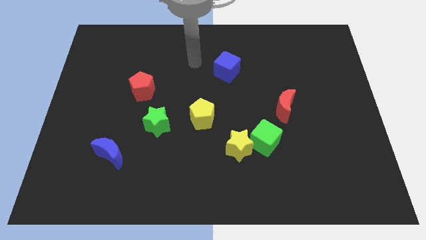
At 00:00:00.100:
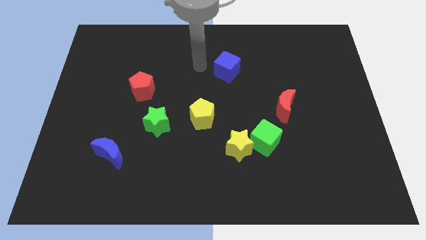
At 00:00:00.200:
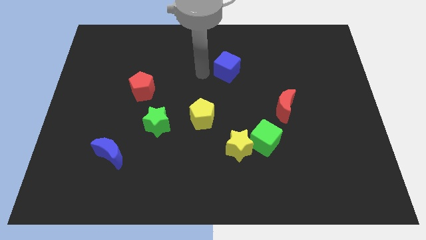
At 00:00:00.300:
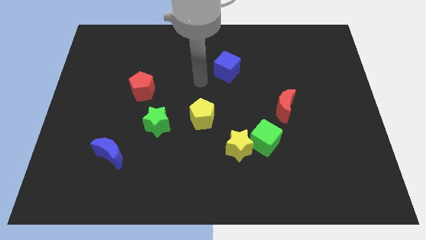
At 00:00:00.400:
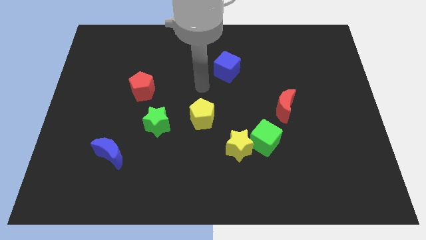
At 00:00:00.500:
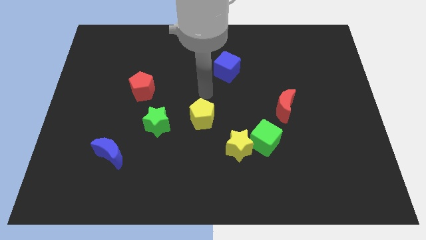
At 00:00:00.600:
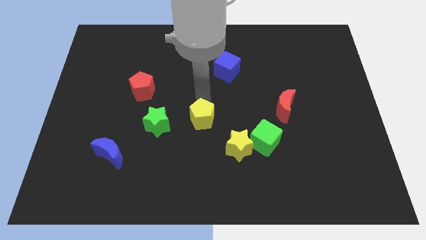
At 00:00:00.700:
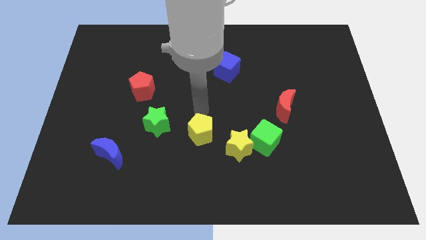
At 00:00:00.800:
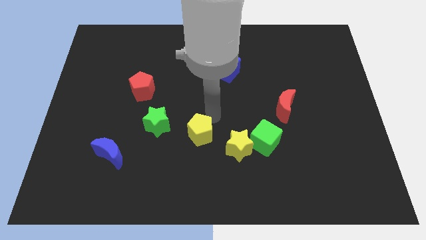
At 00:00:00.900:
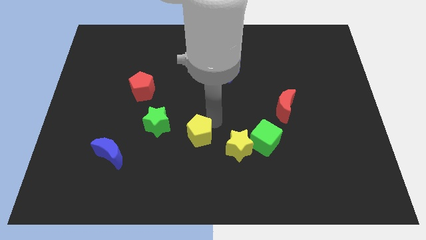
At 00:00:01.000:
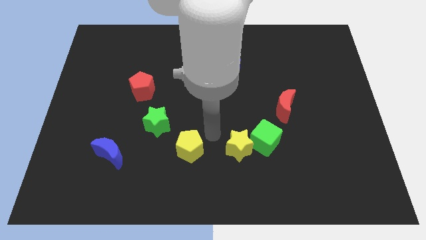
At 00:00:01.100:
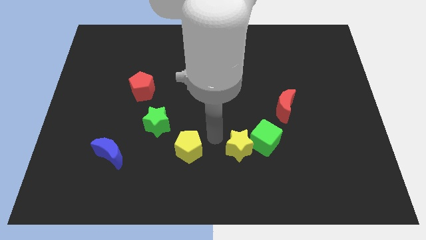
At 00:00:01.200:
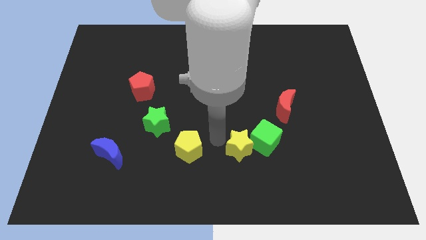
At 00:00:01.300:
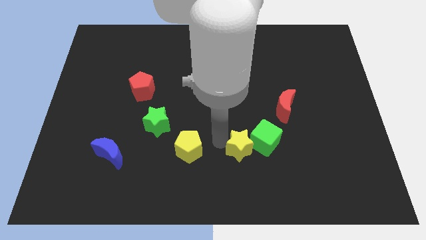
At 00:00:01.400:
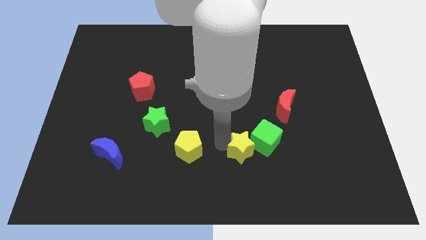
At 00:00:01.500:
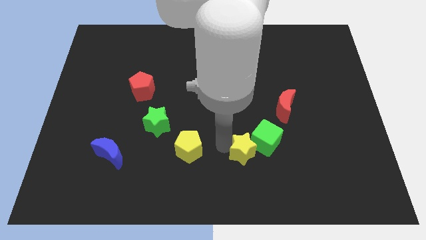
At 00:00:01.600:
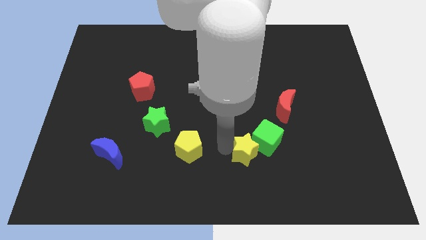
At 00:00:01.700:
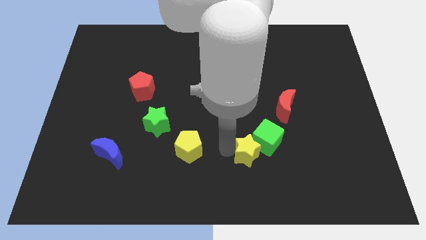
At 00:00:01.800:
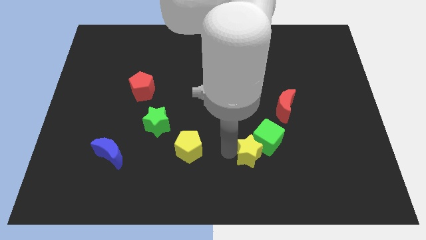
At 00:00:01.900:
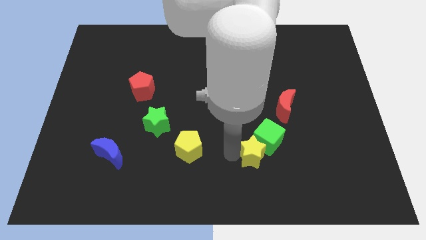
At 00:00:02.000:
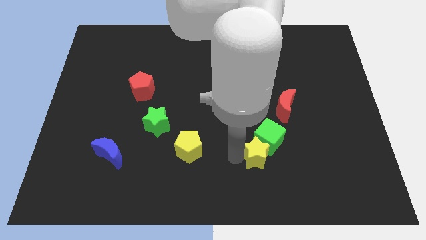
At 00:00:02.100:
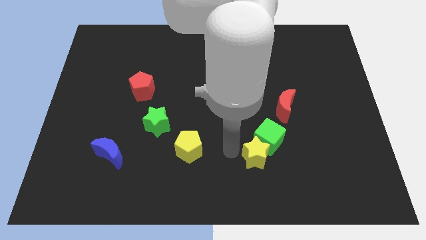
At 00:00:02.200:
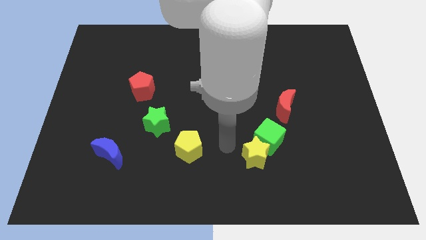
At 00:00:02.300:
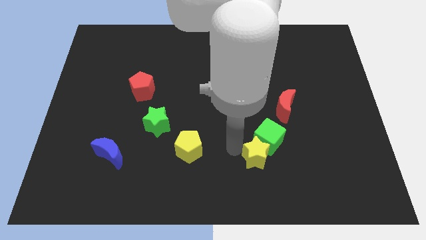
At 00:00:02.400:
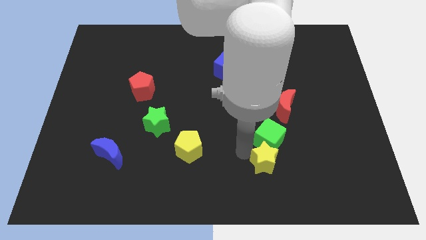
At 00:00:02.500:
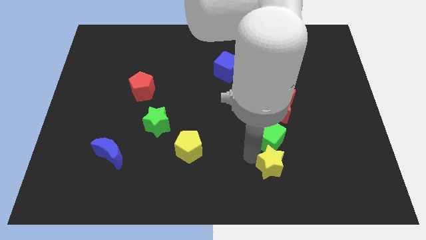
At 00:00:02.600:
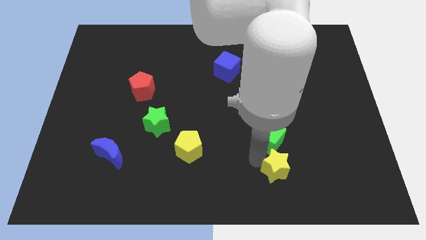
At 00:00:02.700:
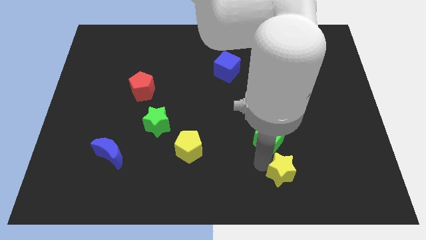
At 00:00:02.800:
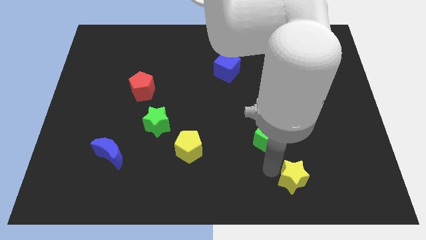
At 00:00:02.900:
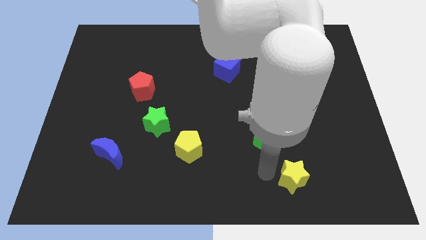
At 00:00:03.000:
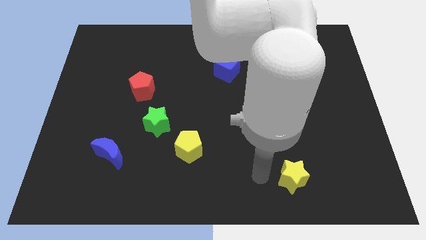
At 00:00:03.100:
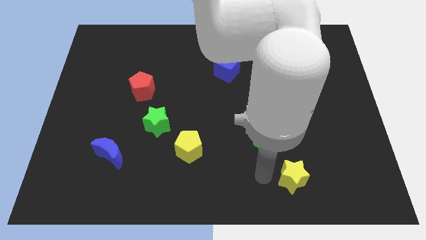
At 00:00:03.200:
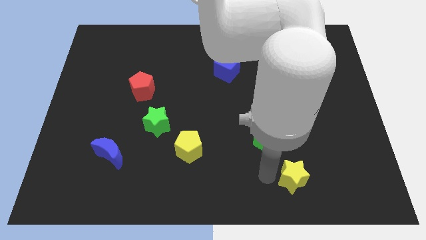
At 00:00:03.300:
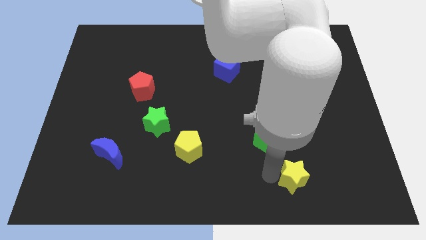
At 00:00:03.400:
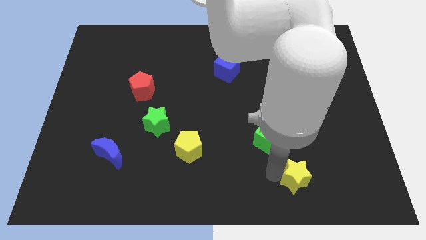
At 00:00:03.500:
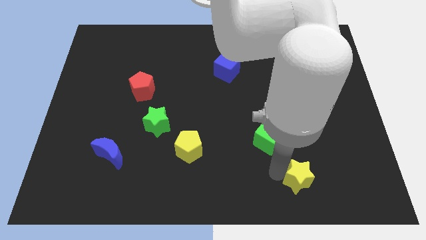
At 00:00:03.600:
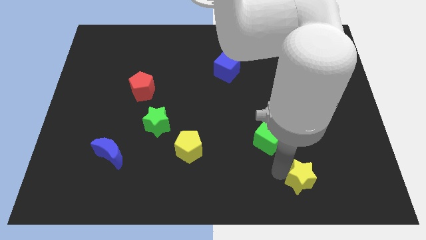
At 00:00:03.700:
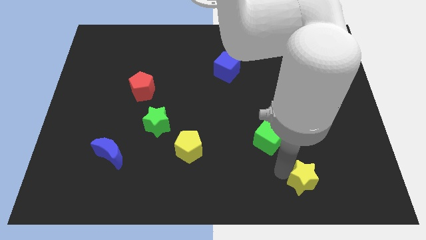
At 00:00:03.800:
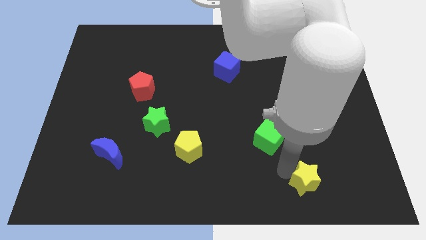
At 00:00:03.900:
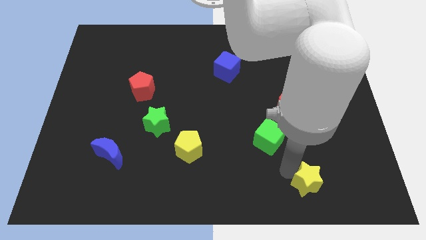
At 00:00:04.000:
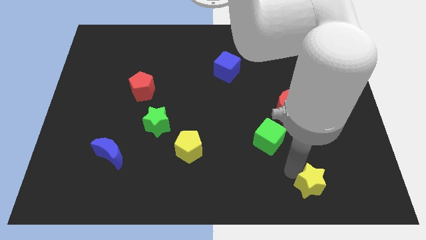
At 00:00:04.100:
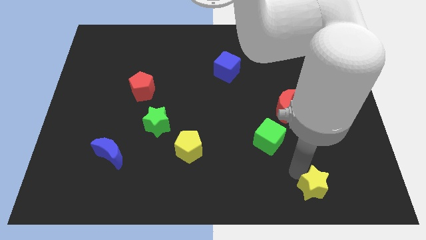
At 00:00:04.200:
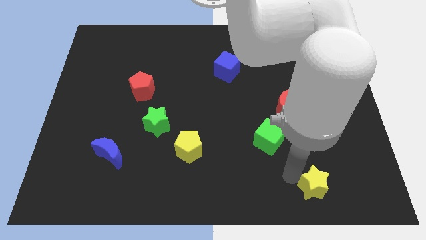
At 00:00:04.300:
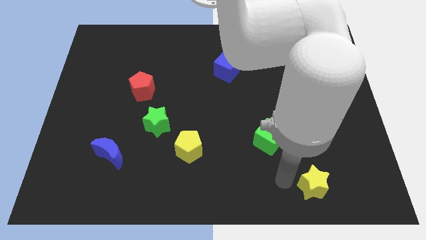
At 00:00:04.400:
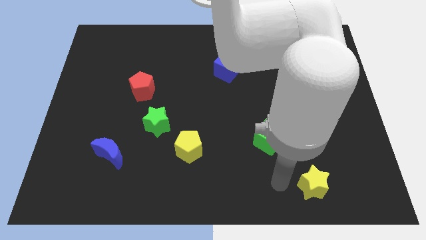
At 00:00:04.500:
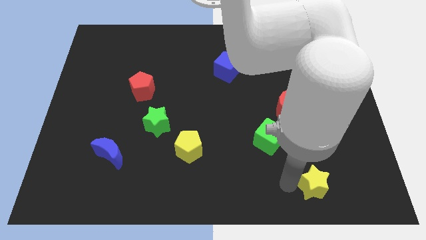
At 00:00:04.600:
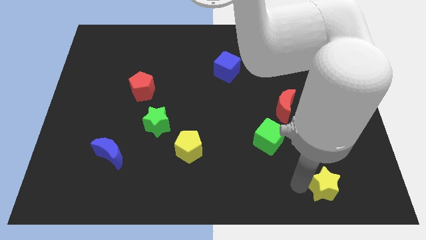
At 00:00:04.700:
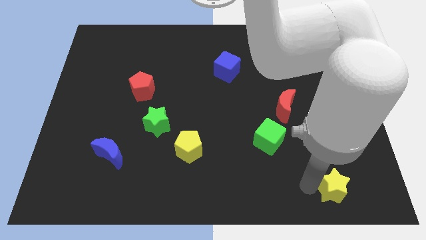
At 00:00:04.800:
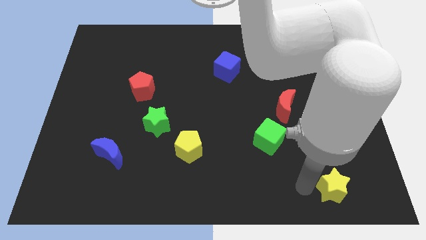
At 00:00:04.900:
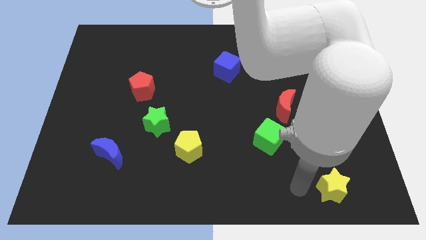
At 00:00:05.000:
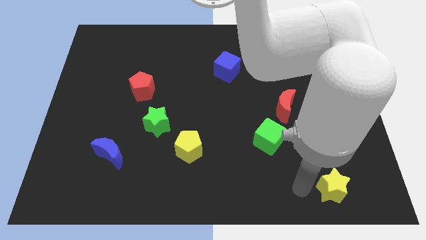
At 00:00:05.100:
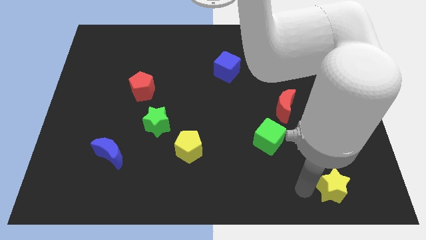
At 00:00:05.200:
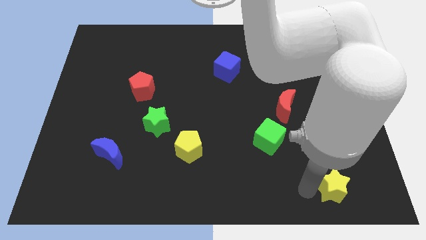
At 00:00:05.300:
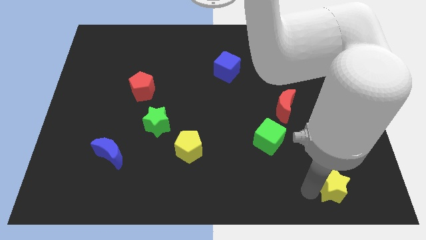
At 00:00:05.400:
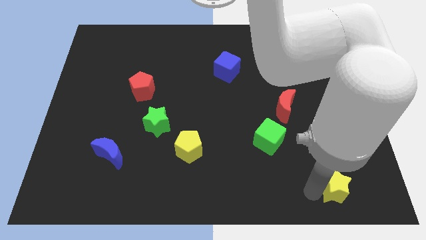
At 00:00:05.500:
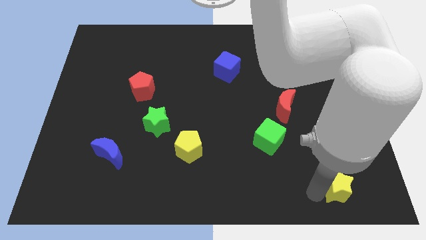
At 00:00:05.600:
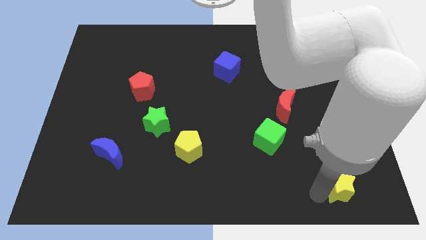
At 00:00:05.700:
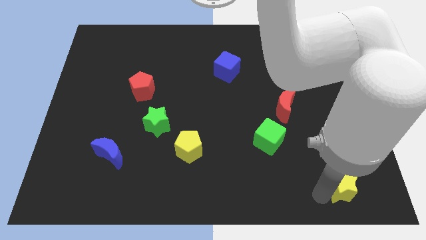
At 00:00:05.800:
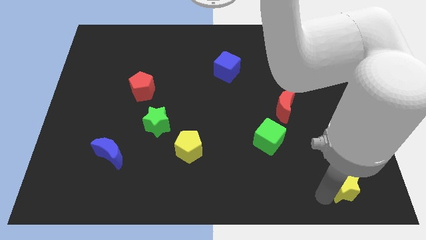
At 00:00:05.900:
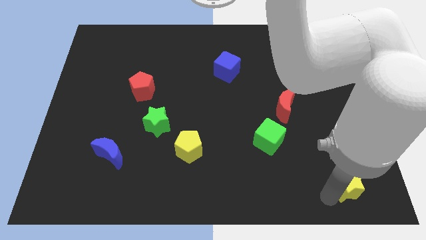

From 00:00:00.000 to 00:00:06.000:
slide the yellow star to the bottom right of the board
